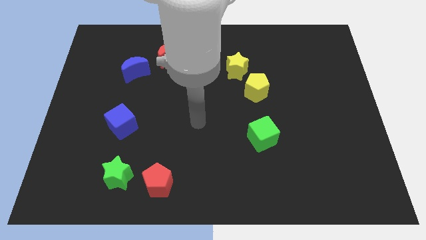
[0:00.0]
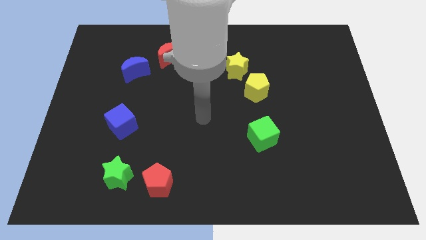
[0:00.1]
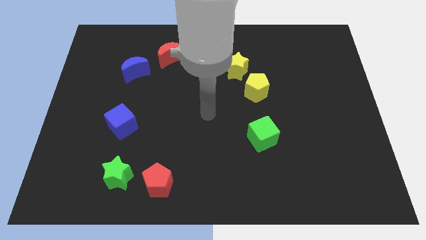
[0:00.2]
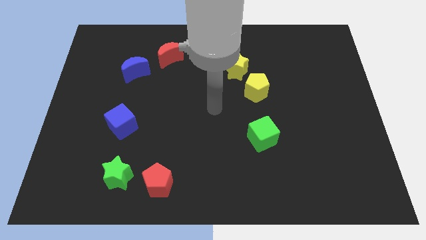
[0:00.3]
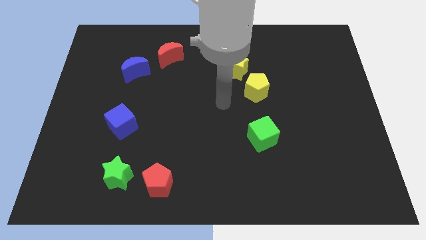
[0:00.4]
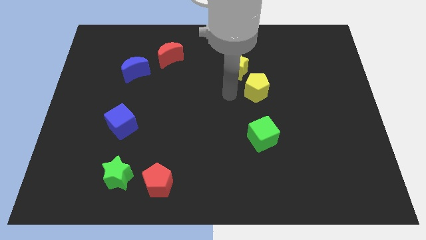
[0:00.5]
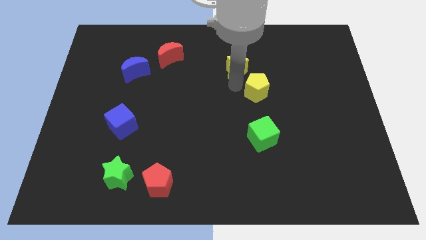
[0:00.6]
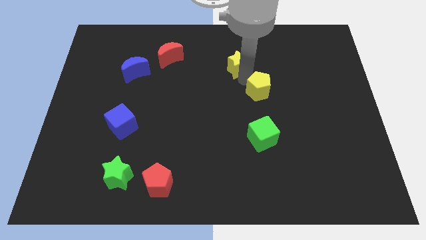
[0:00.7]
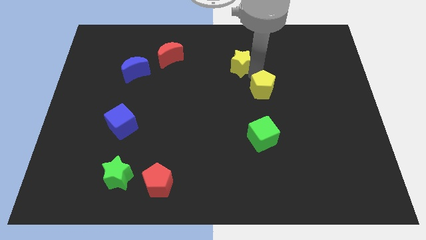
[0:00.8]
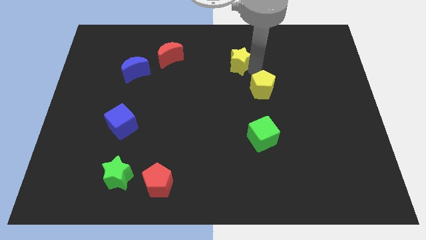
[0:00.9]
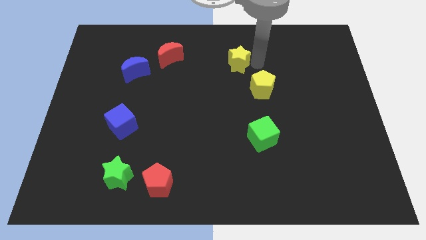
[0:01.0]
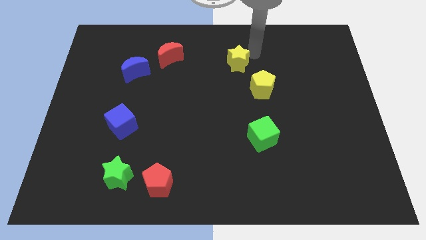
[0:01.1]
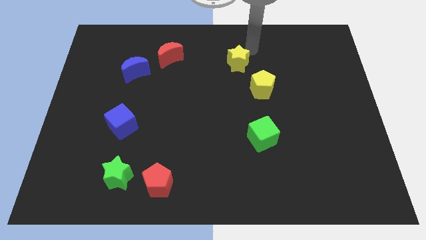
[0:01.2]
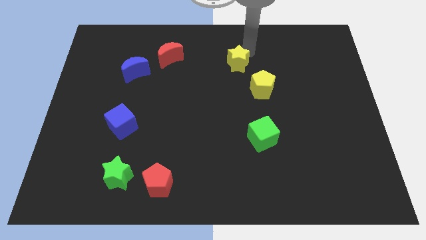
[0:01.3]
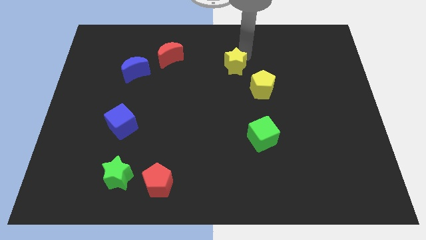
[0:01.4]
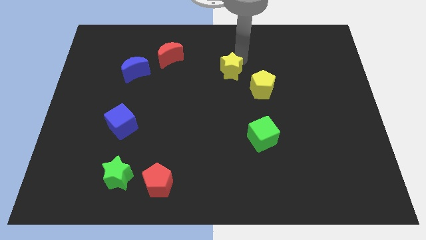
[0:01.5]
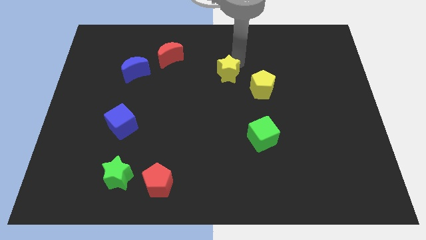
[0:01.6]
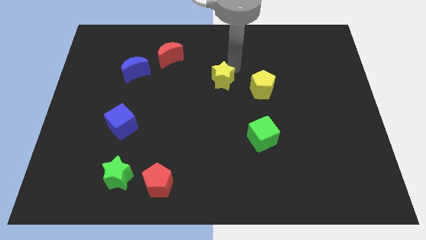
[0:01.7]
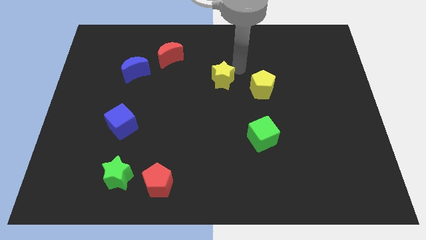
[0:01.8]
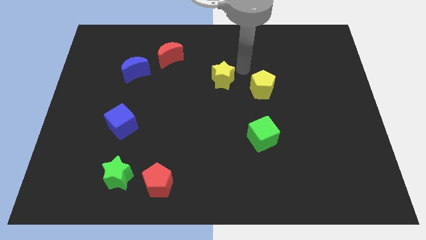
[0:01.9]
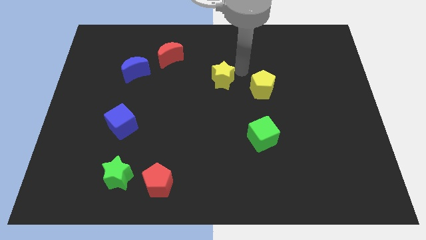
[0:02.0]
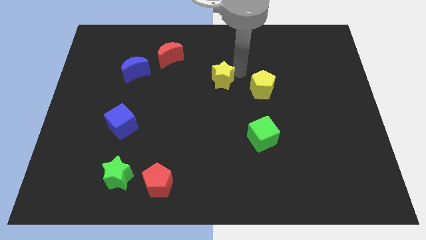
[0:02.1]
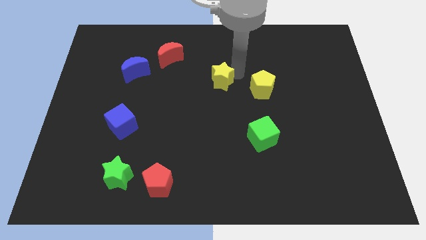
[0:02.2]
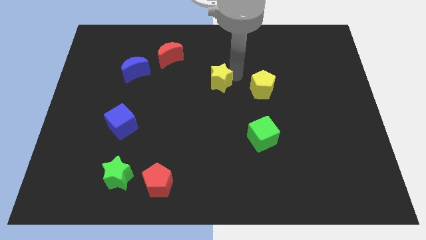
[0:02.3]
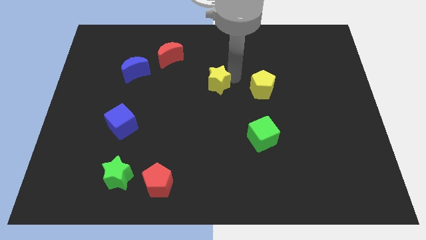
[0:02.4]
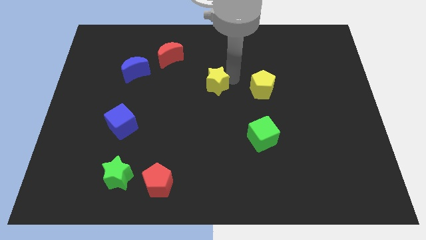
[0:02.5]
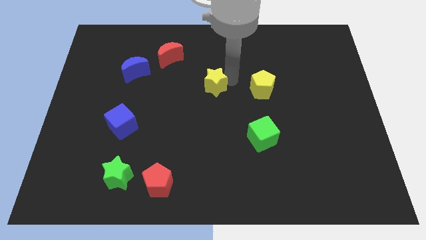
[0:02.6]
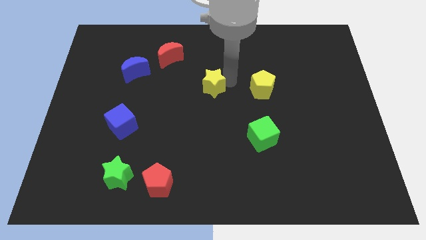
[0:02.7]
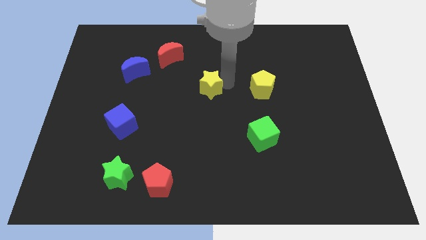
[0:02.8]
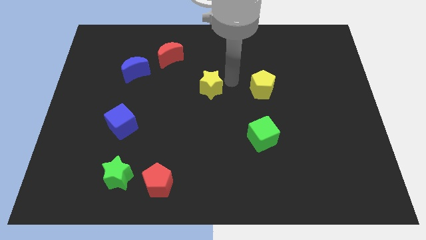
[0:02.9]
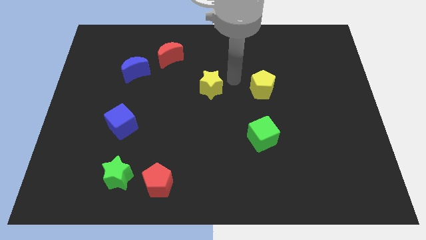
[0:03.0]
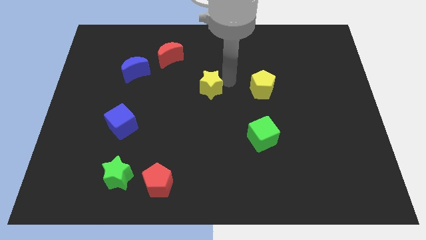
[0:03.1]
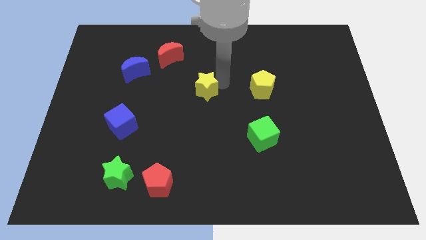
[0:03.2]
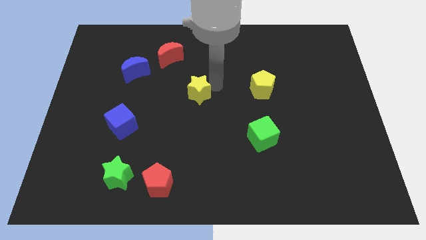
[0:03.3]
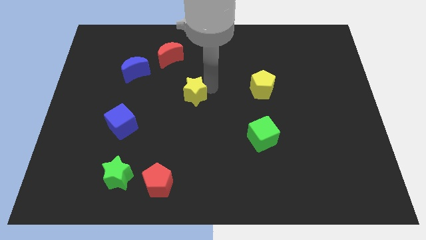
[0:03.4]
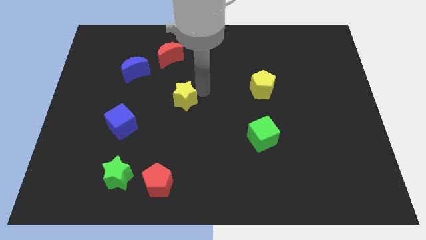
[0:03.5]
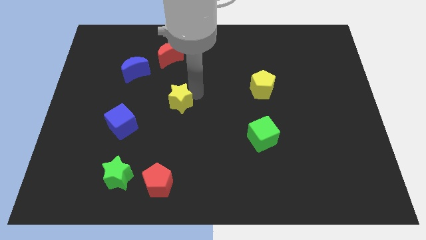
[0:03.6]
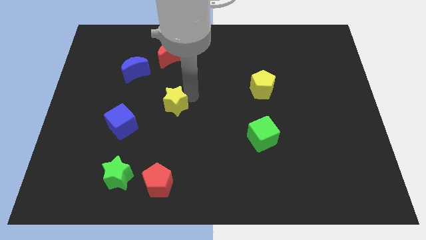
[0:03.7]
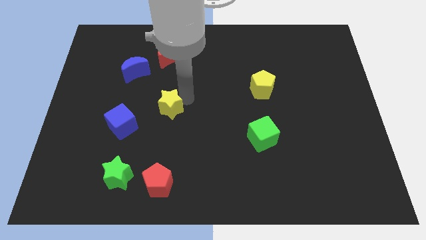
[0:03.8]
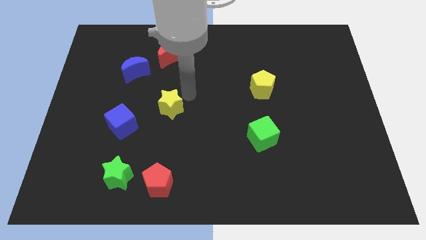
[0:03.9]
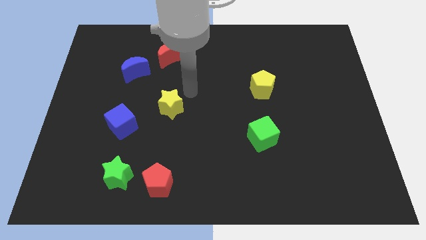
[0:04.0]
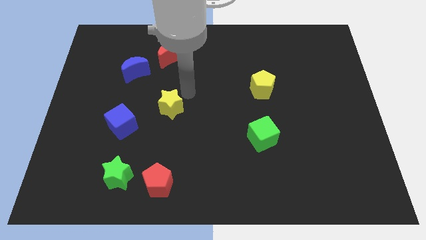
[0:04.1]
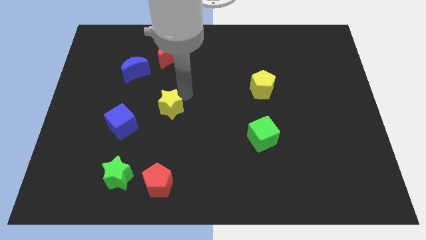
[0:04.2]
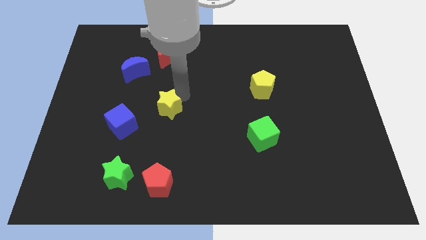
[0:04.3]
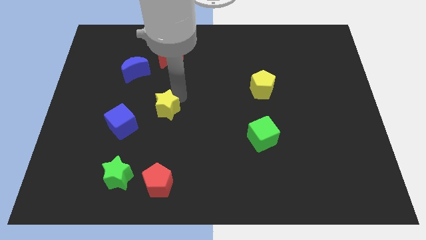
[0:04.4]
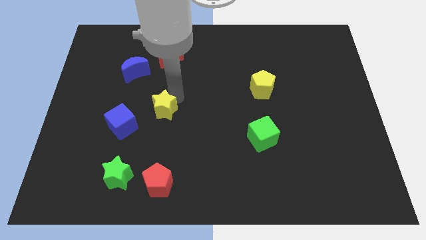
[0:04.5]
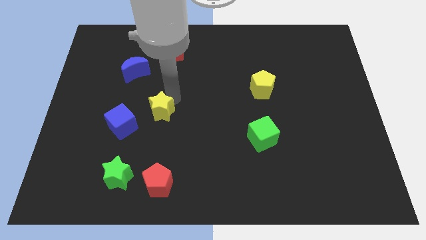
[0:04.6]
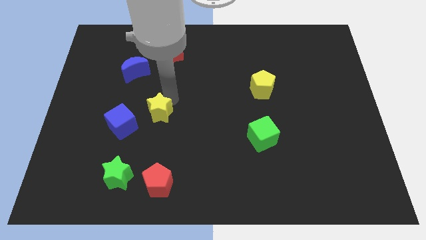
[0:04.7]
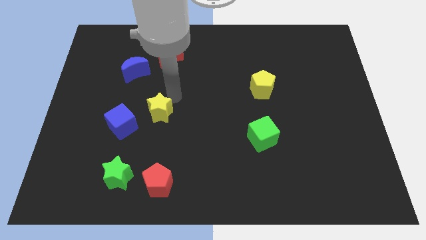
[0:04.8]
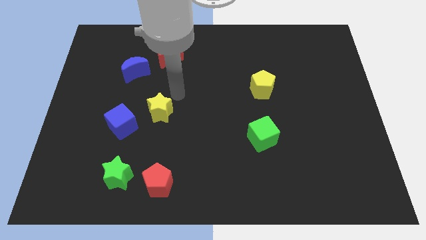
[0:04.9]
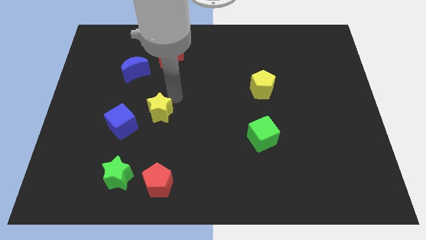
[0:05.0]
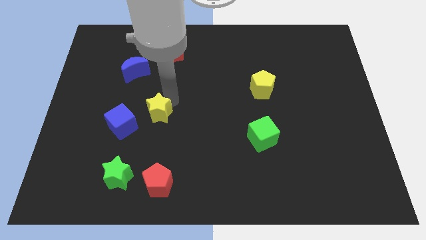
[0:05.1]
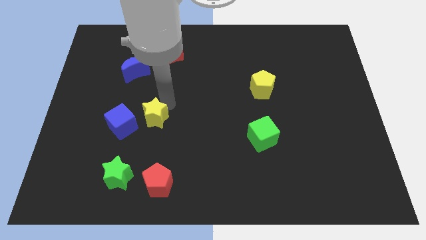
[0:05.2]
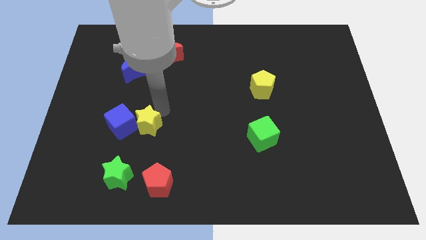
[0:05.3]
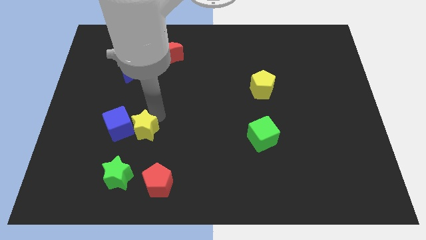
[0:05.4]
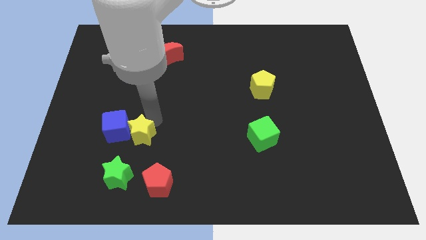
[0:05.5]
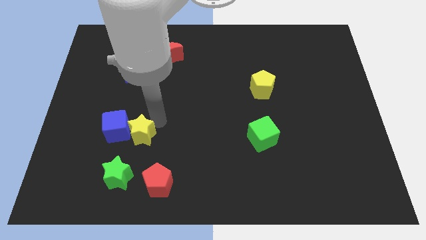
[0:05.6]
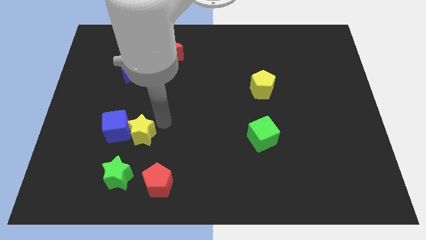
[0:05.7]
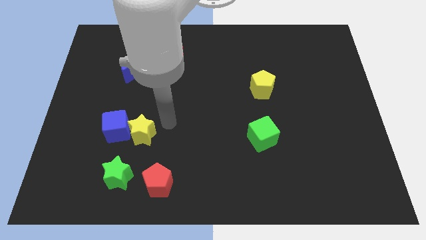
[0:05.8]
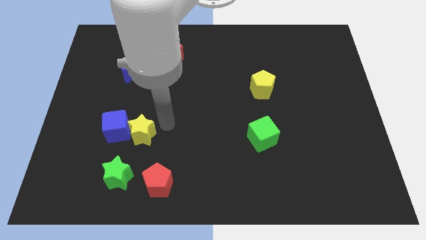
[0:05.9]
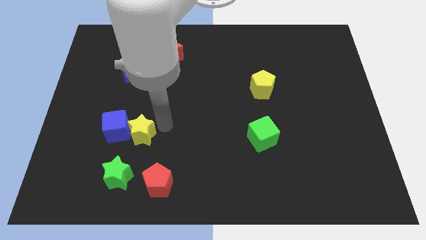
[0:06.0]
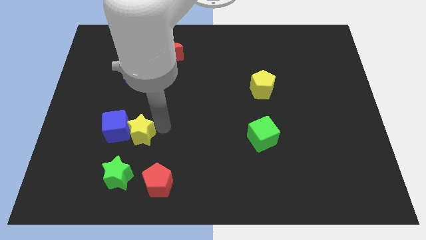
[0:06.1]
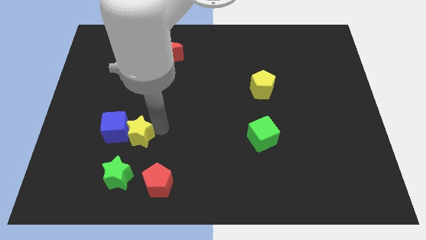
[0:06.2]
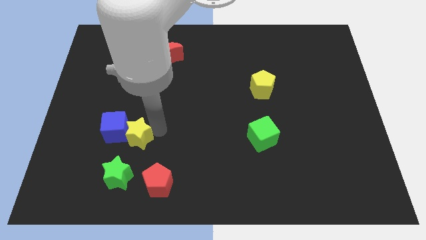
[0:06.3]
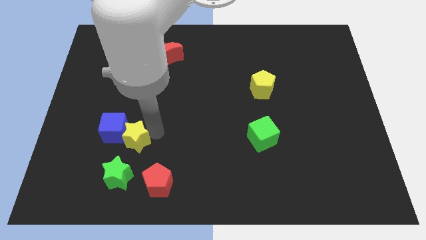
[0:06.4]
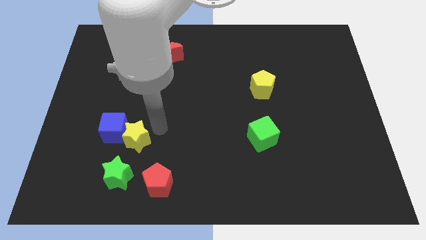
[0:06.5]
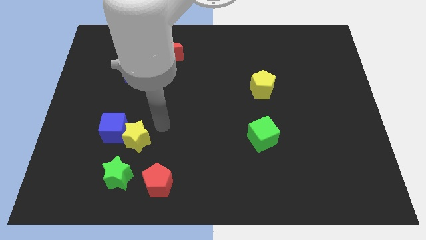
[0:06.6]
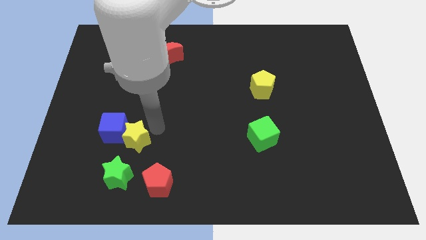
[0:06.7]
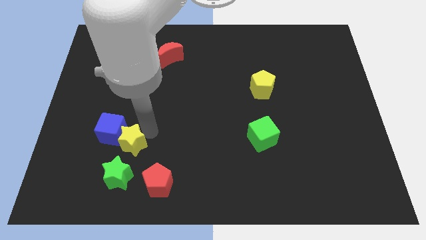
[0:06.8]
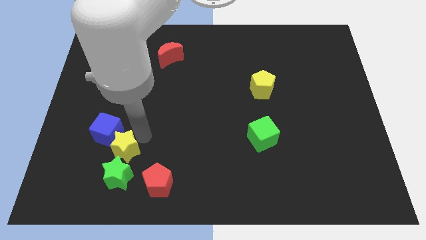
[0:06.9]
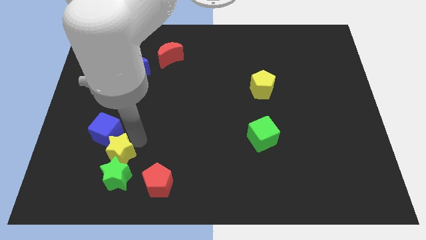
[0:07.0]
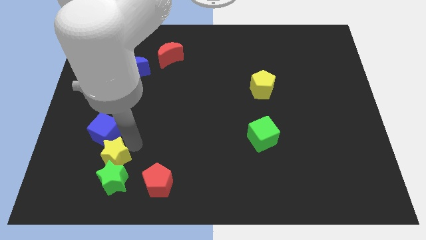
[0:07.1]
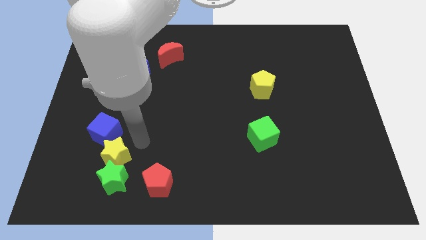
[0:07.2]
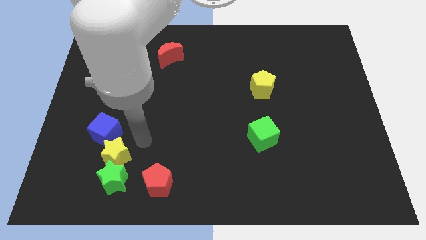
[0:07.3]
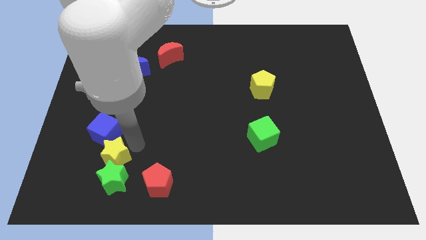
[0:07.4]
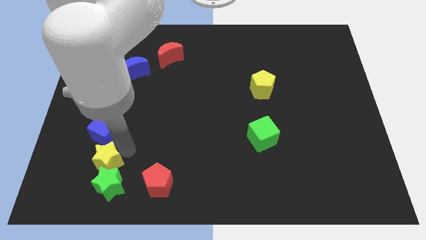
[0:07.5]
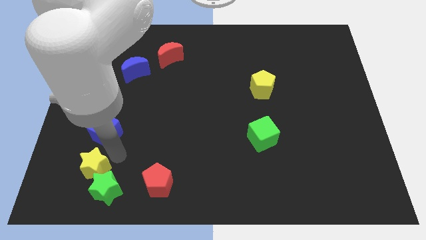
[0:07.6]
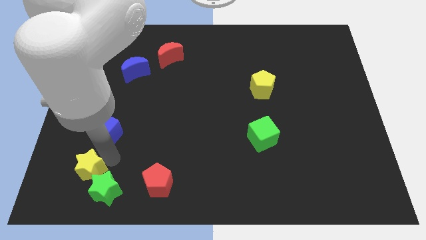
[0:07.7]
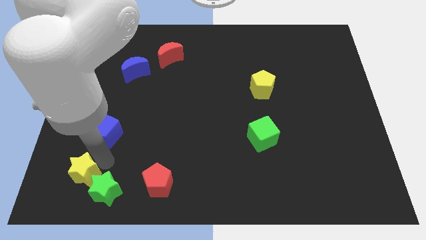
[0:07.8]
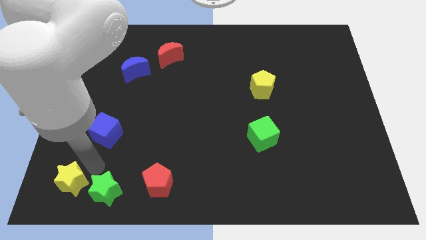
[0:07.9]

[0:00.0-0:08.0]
push the yellow star to the lower left corner
